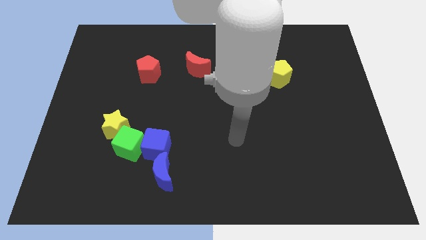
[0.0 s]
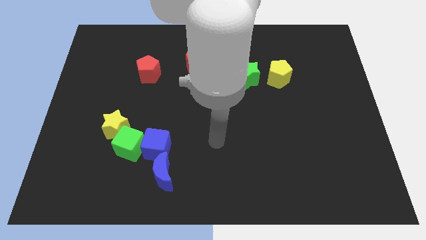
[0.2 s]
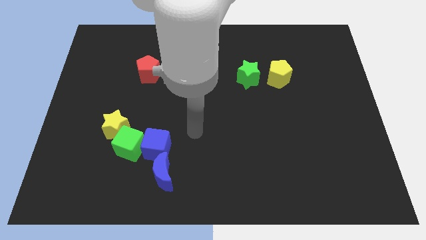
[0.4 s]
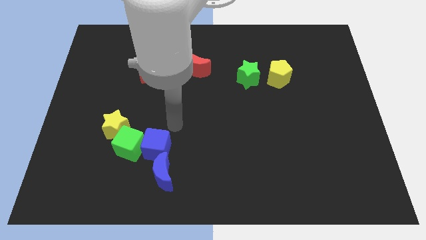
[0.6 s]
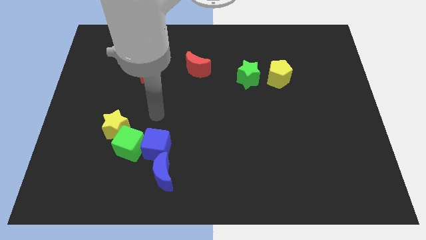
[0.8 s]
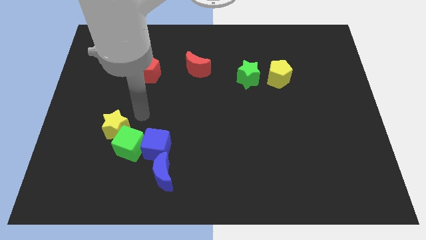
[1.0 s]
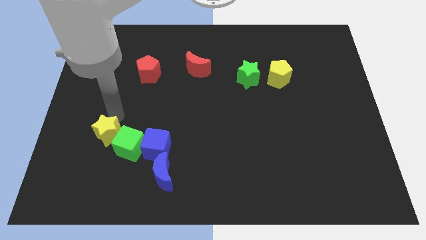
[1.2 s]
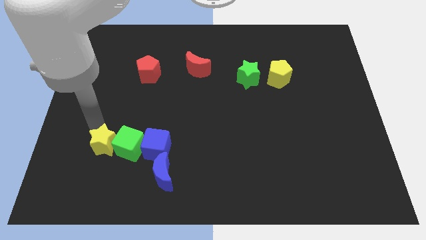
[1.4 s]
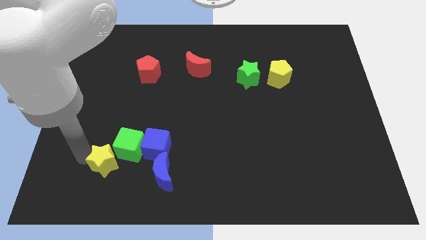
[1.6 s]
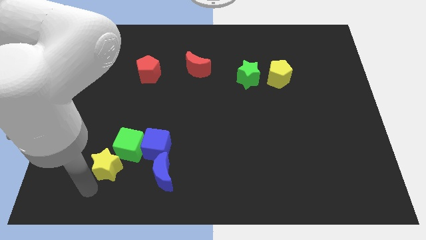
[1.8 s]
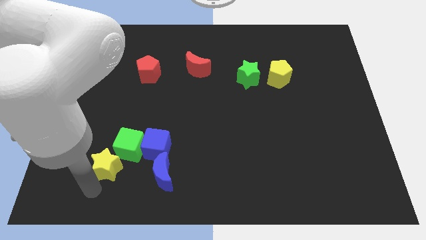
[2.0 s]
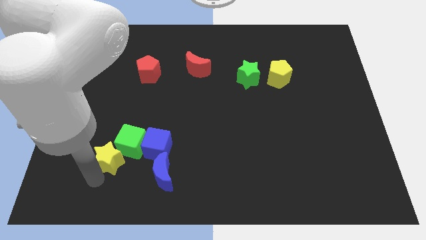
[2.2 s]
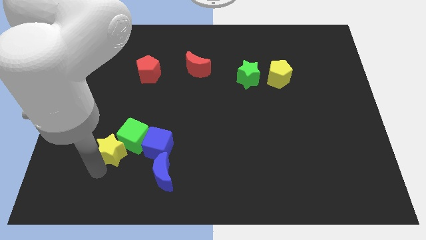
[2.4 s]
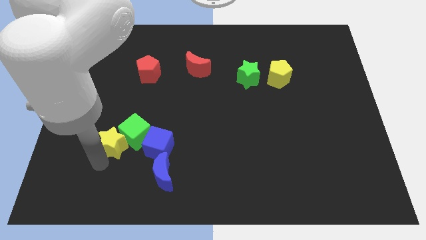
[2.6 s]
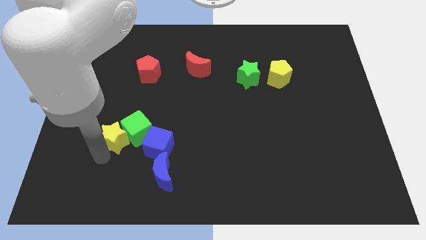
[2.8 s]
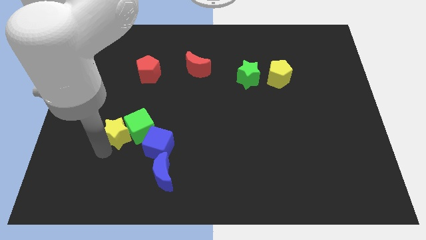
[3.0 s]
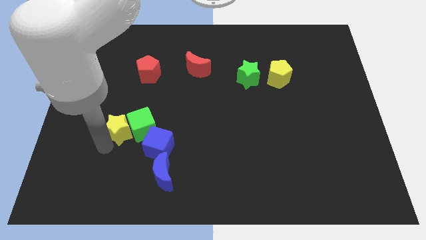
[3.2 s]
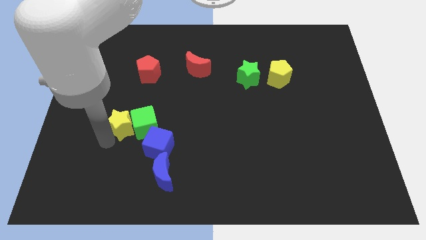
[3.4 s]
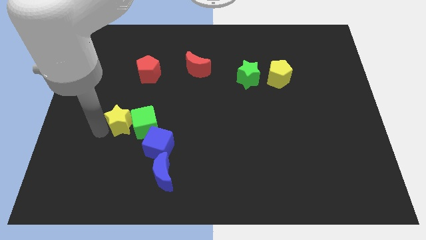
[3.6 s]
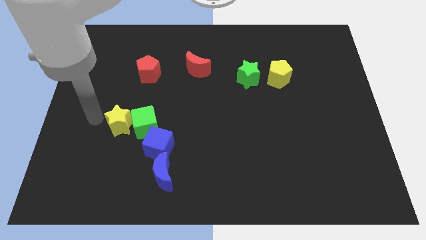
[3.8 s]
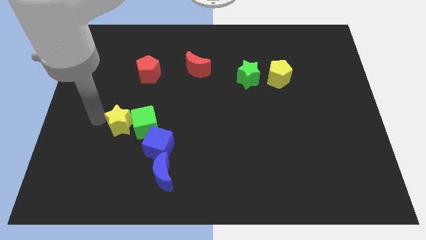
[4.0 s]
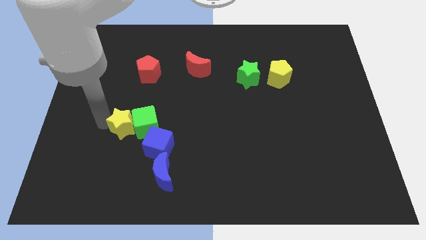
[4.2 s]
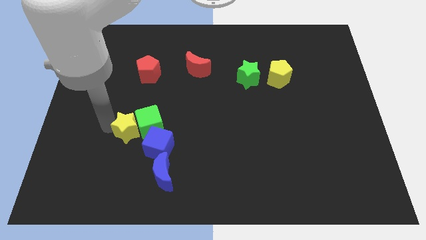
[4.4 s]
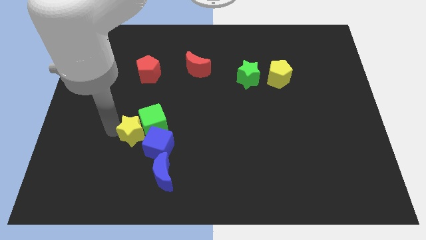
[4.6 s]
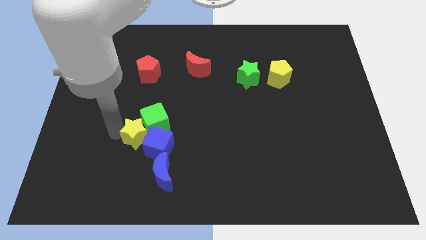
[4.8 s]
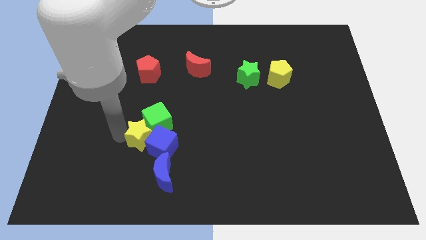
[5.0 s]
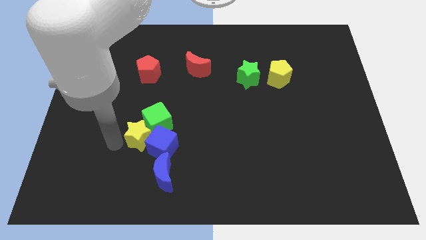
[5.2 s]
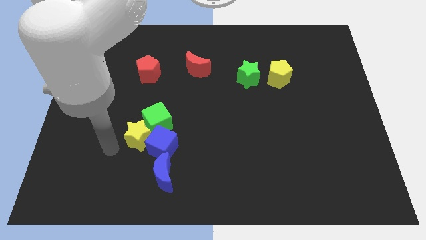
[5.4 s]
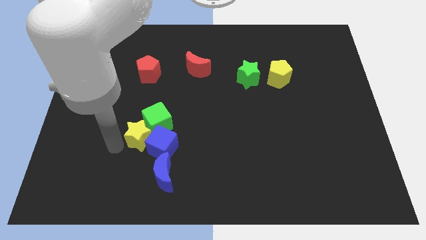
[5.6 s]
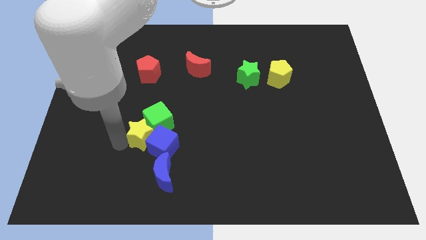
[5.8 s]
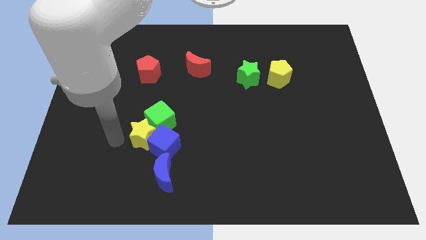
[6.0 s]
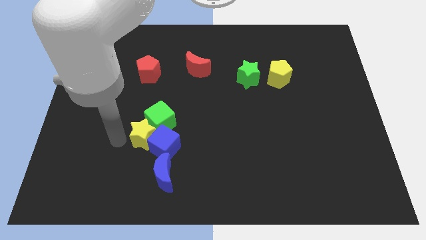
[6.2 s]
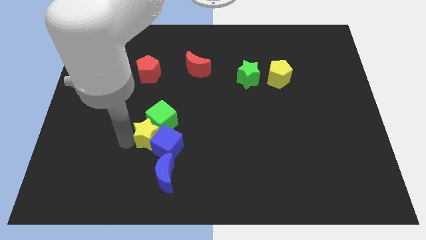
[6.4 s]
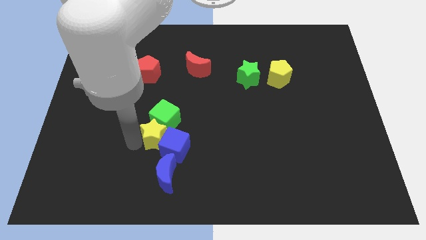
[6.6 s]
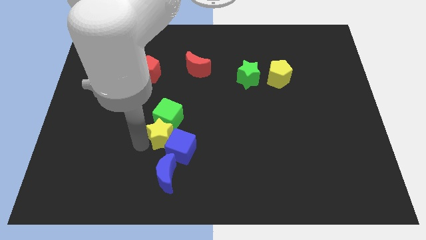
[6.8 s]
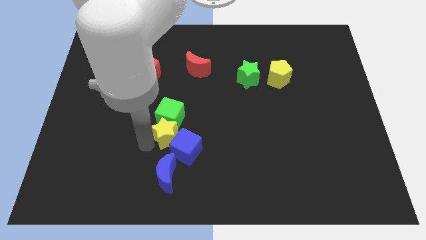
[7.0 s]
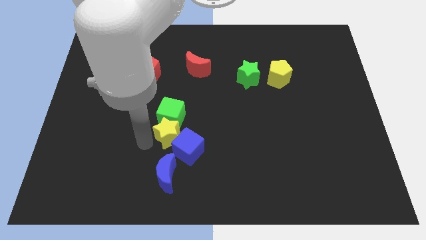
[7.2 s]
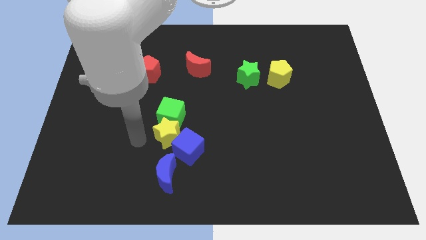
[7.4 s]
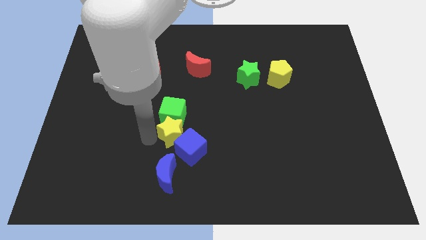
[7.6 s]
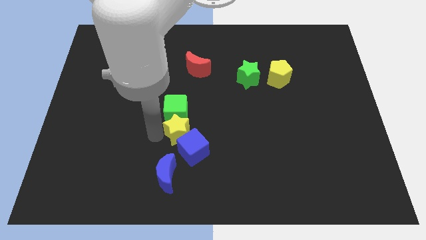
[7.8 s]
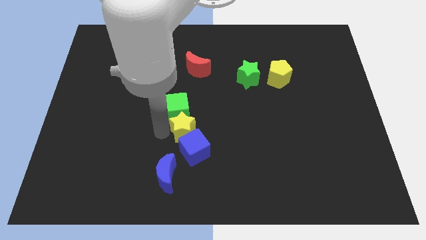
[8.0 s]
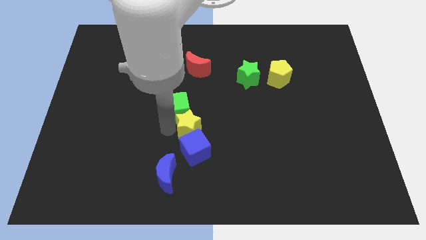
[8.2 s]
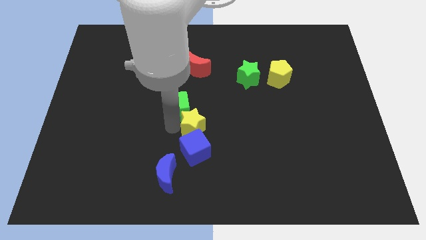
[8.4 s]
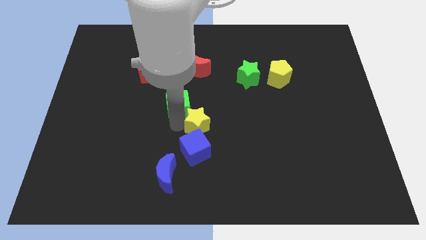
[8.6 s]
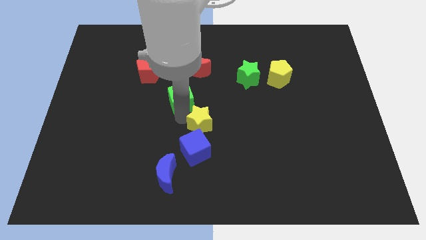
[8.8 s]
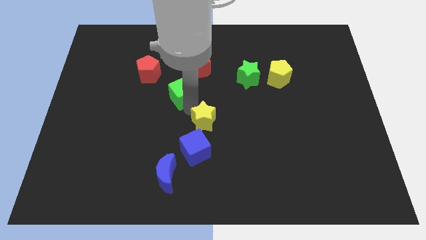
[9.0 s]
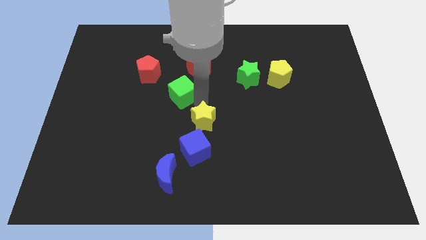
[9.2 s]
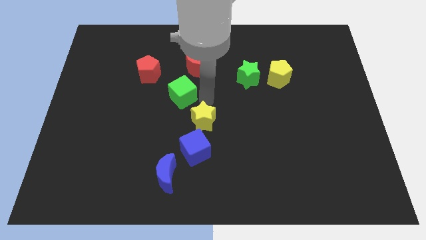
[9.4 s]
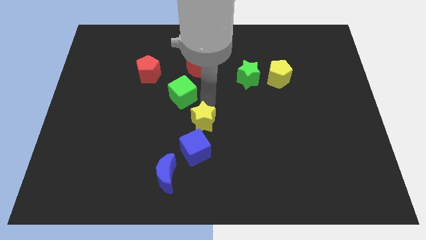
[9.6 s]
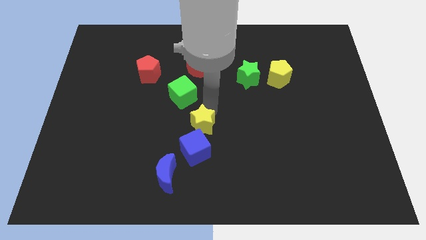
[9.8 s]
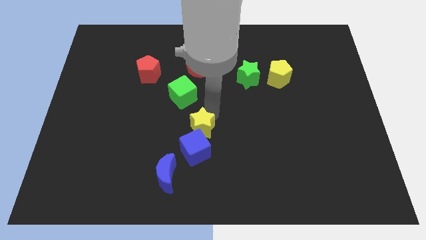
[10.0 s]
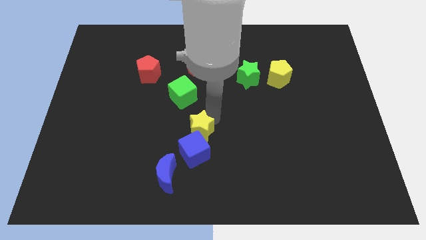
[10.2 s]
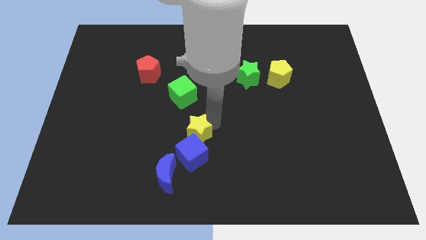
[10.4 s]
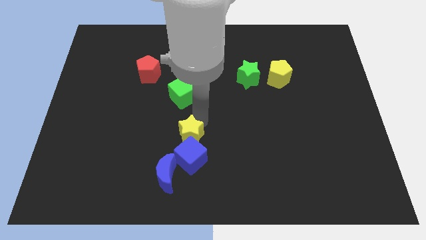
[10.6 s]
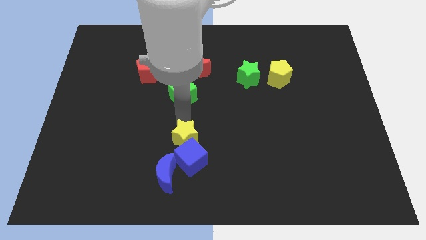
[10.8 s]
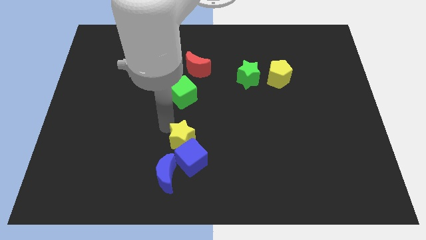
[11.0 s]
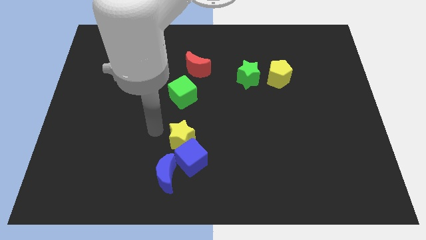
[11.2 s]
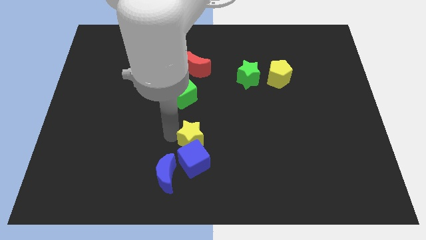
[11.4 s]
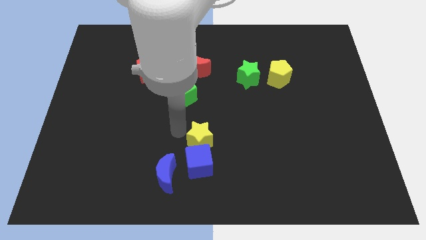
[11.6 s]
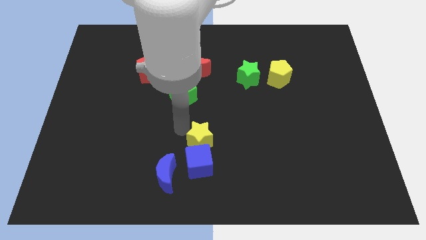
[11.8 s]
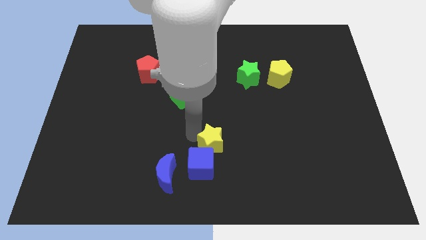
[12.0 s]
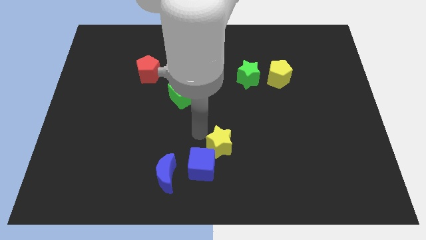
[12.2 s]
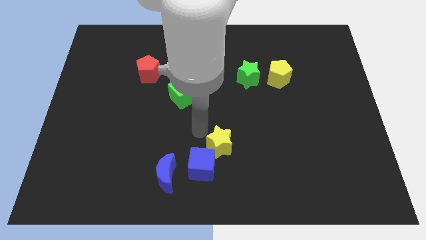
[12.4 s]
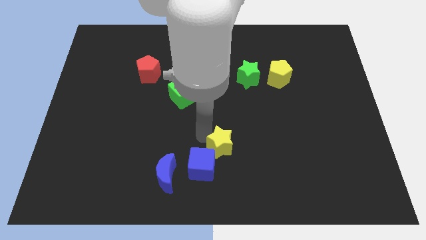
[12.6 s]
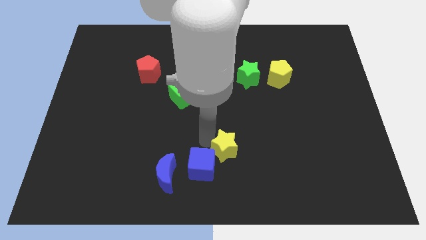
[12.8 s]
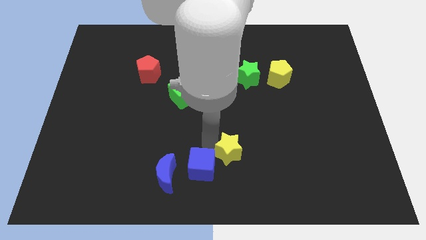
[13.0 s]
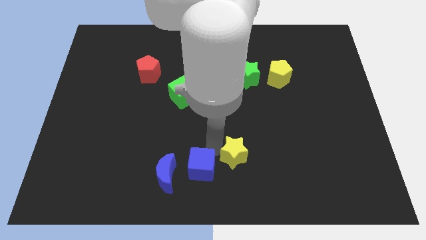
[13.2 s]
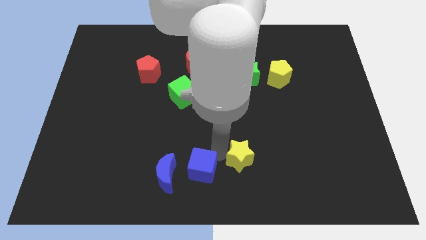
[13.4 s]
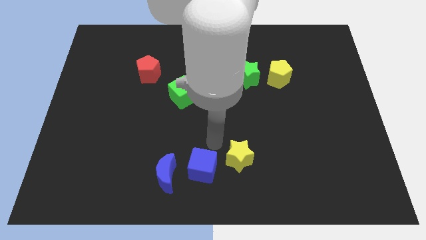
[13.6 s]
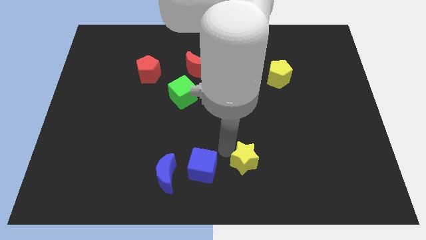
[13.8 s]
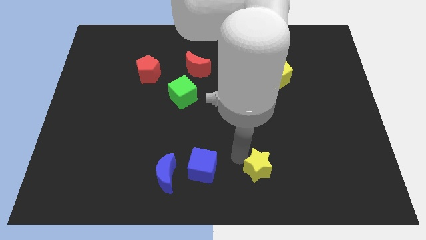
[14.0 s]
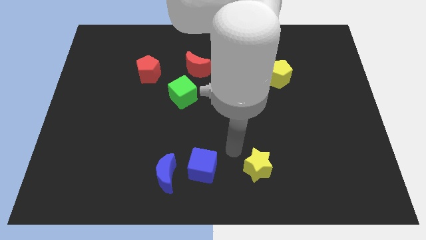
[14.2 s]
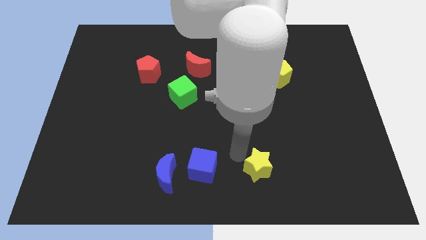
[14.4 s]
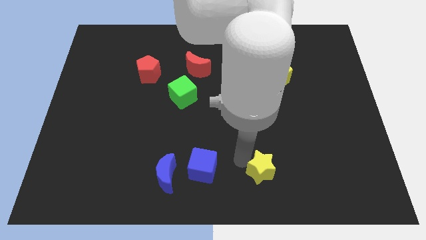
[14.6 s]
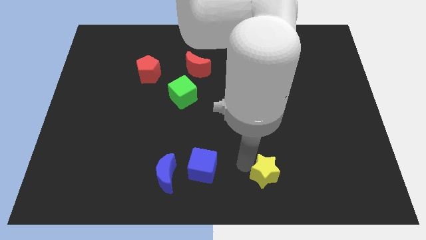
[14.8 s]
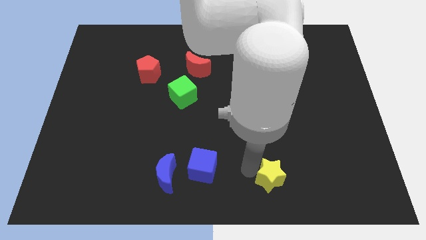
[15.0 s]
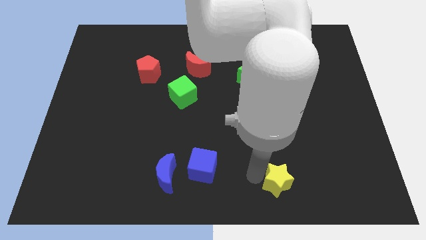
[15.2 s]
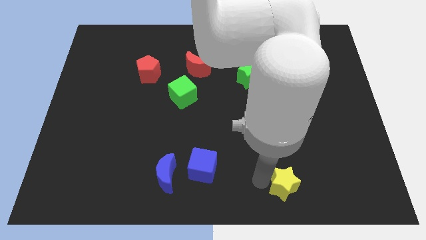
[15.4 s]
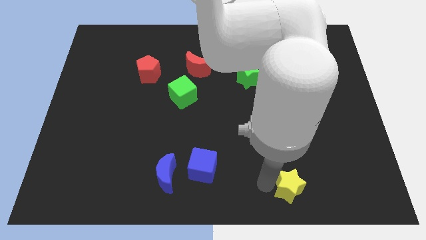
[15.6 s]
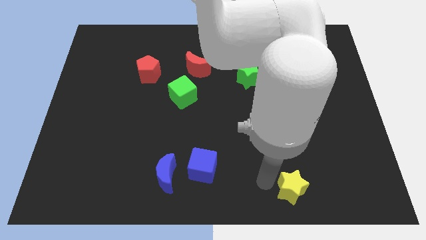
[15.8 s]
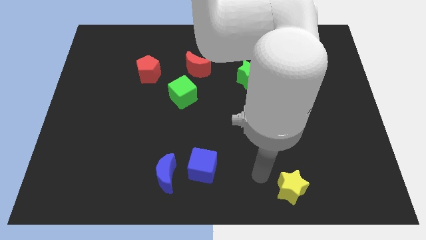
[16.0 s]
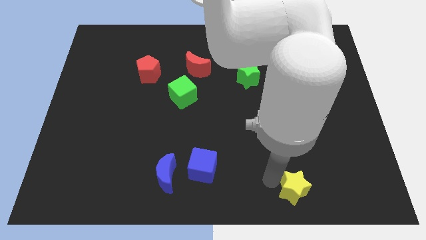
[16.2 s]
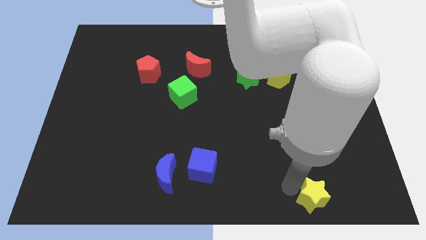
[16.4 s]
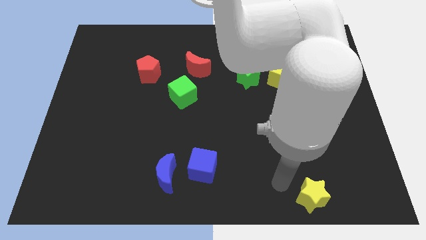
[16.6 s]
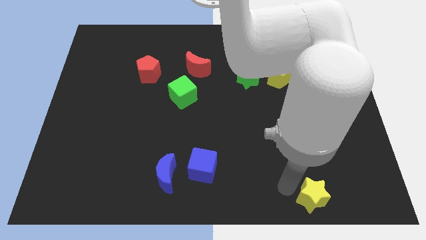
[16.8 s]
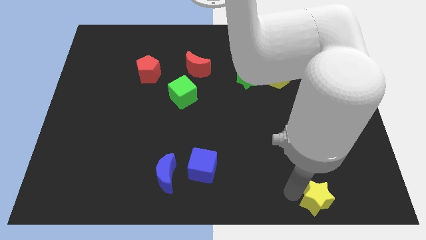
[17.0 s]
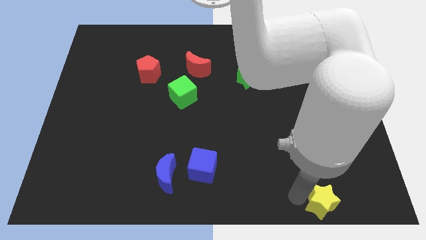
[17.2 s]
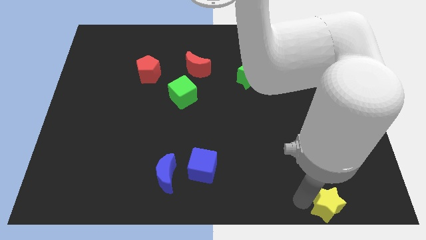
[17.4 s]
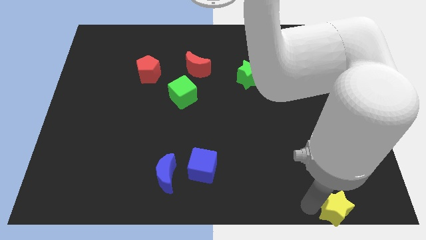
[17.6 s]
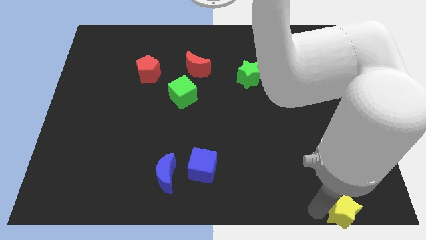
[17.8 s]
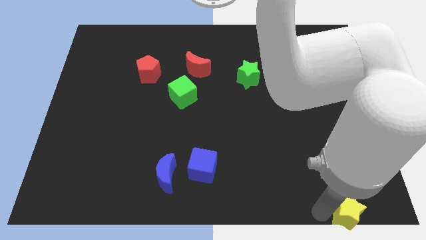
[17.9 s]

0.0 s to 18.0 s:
push the yellow star to the bottom right of the board
